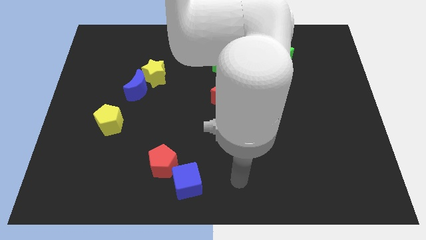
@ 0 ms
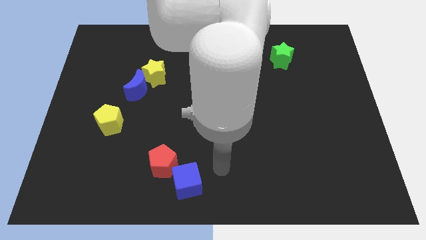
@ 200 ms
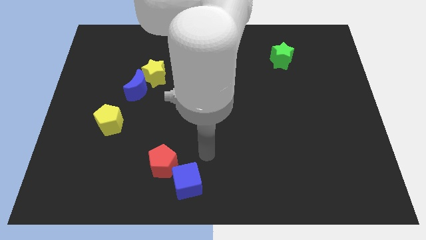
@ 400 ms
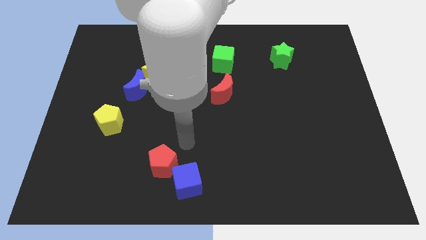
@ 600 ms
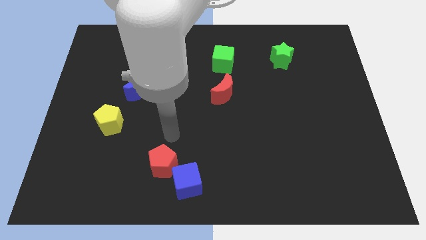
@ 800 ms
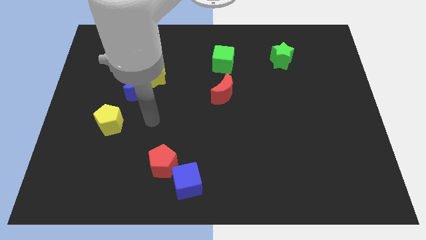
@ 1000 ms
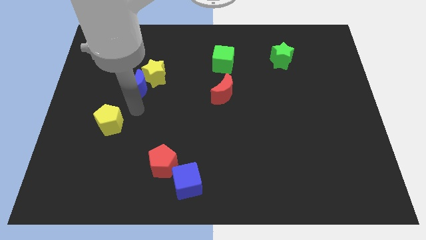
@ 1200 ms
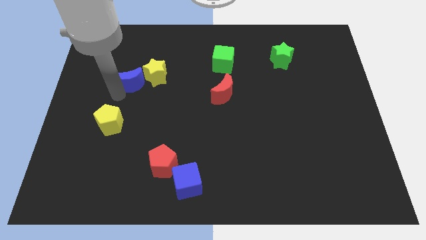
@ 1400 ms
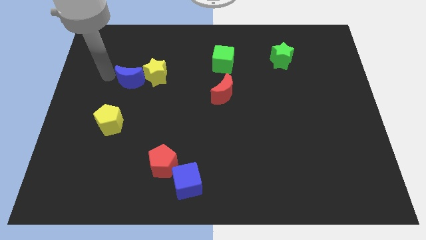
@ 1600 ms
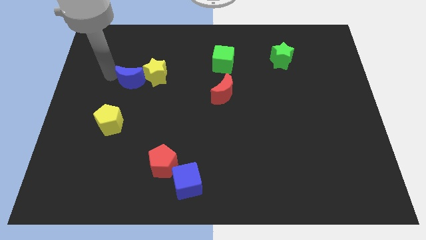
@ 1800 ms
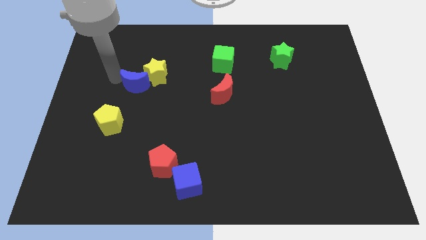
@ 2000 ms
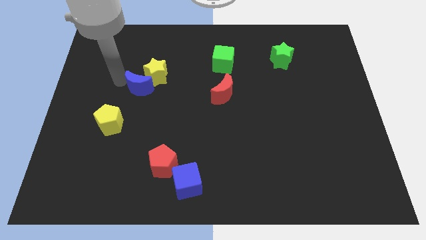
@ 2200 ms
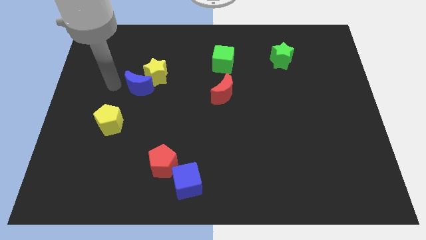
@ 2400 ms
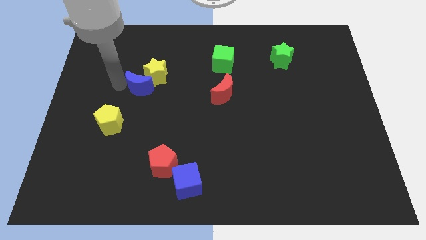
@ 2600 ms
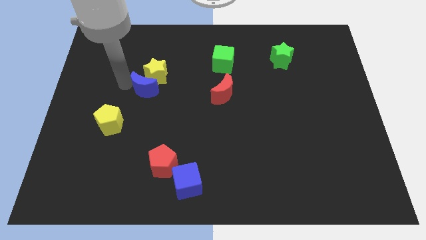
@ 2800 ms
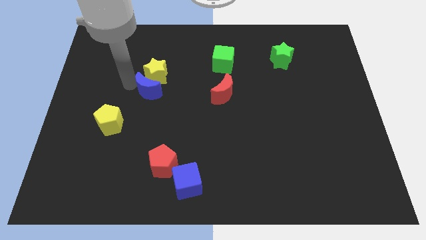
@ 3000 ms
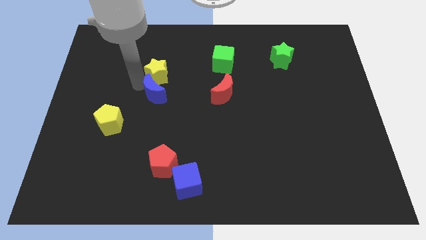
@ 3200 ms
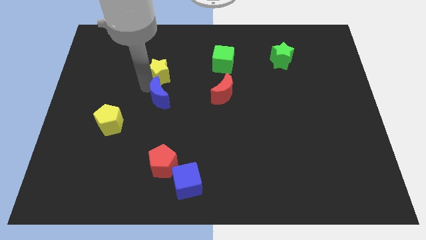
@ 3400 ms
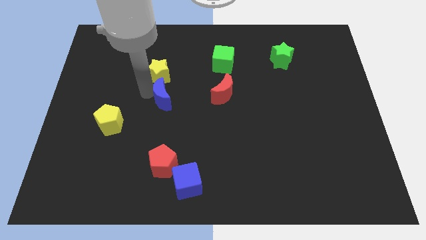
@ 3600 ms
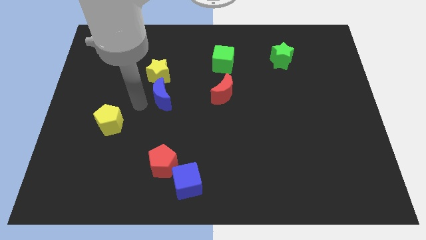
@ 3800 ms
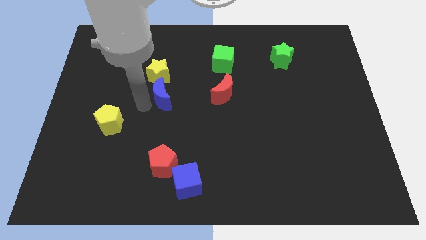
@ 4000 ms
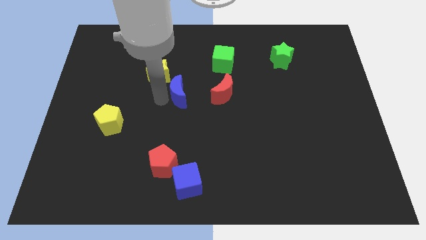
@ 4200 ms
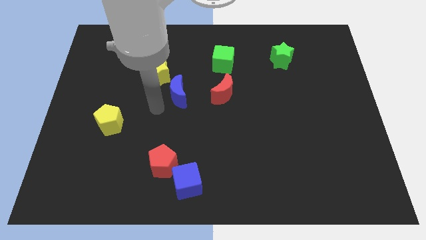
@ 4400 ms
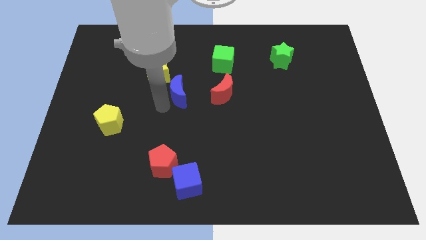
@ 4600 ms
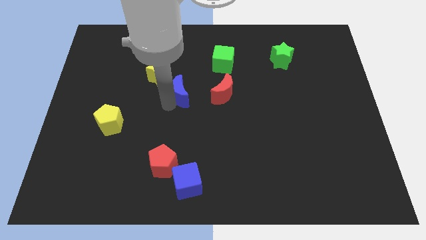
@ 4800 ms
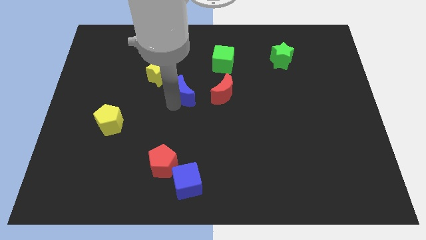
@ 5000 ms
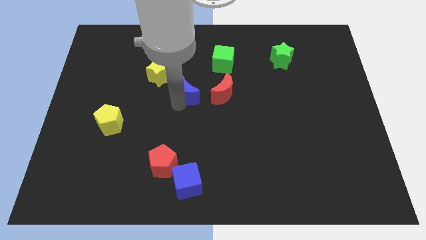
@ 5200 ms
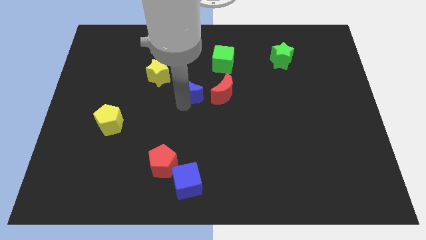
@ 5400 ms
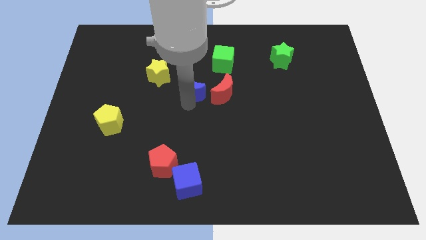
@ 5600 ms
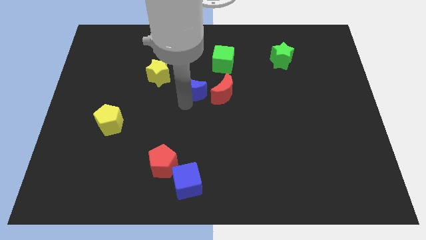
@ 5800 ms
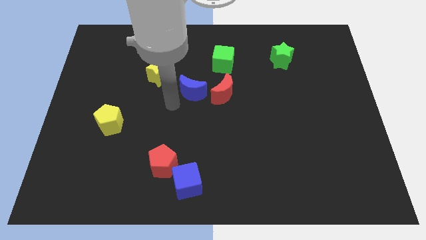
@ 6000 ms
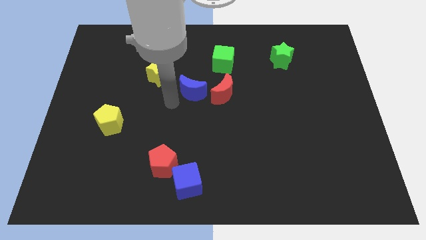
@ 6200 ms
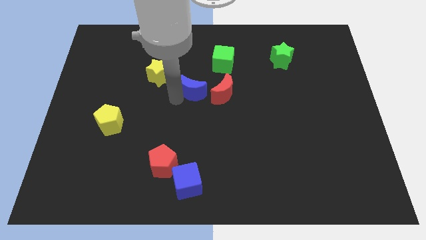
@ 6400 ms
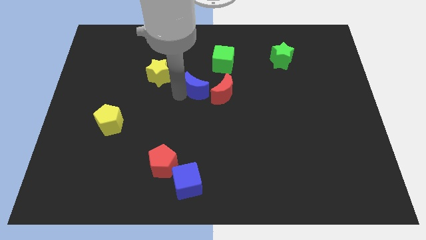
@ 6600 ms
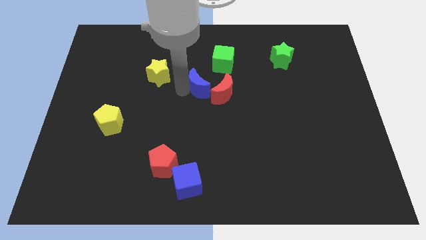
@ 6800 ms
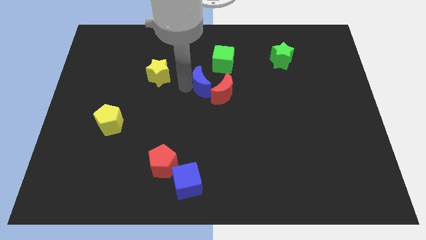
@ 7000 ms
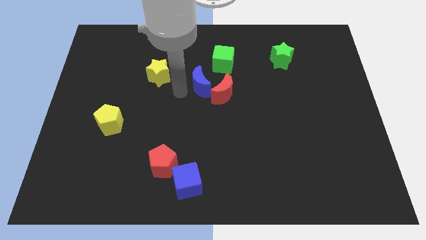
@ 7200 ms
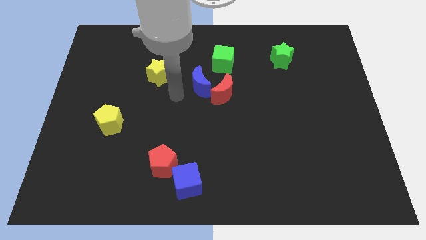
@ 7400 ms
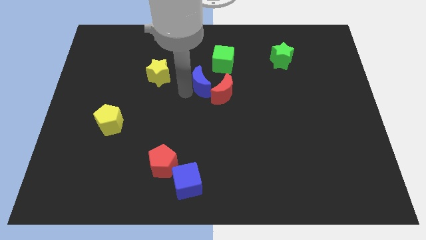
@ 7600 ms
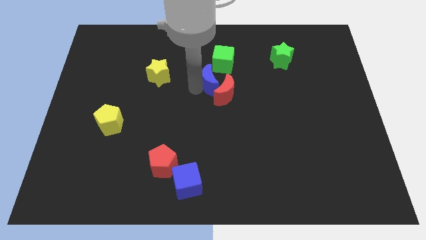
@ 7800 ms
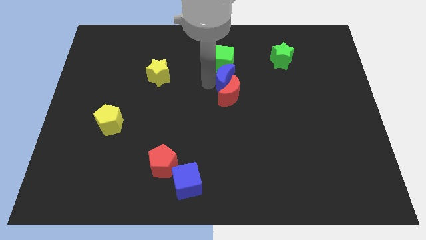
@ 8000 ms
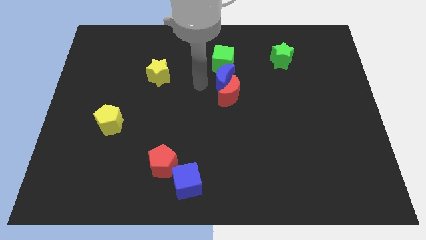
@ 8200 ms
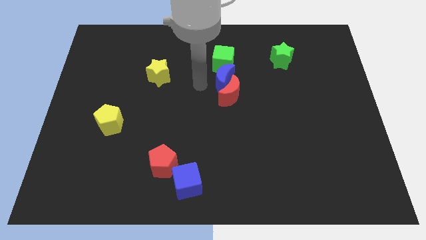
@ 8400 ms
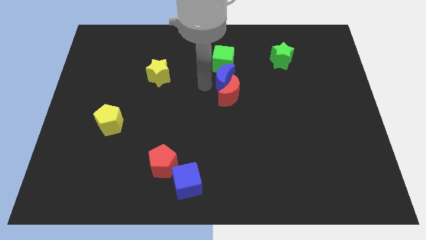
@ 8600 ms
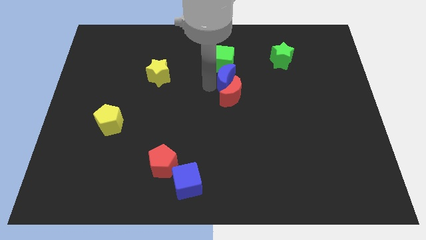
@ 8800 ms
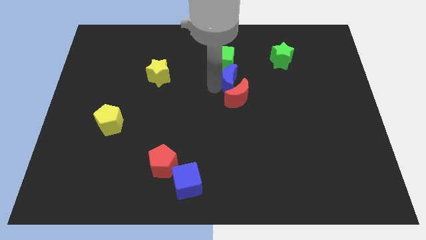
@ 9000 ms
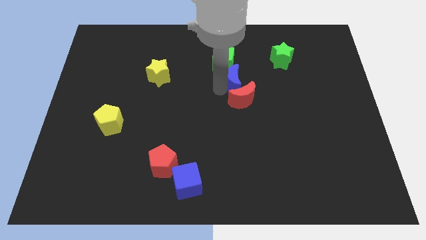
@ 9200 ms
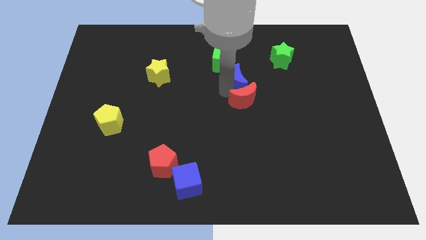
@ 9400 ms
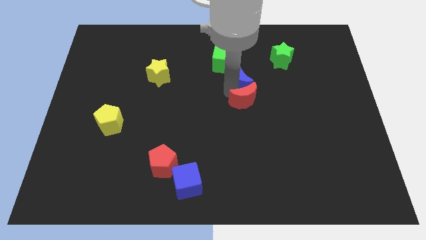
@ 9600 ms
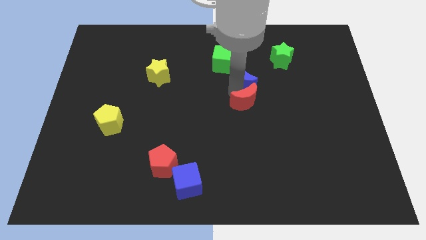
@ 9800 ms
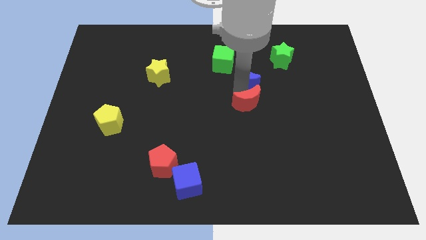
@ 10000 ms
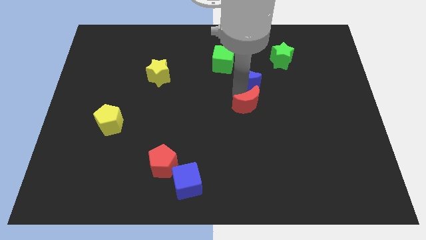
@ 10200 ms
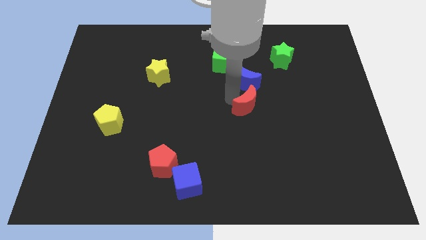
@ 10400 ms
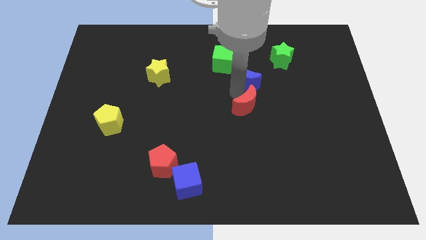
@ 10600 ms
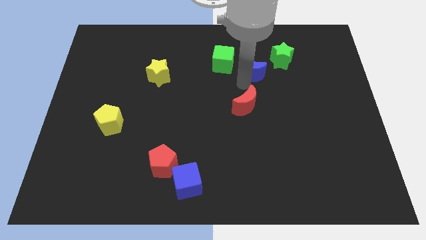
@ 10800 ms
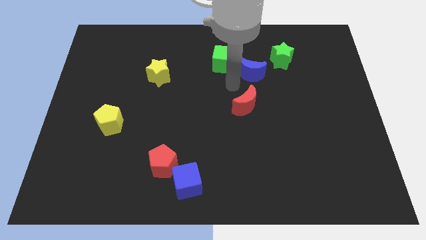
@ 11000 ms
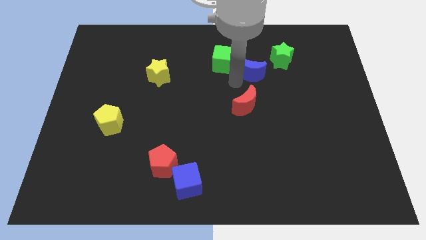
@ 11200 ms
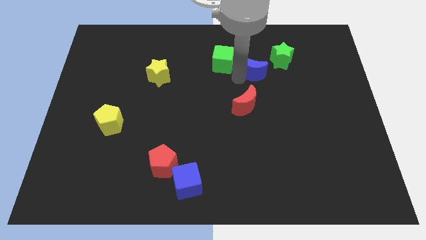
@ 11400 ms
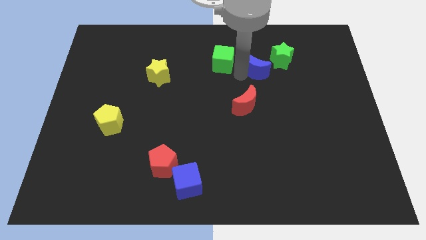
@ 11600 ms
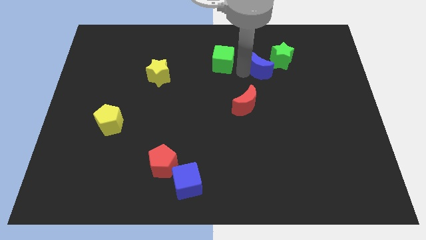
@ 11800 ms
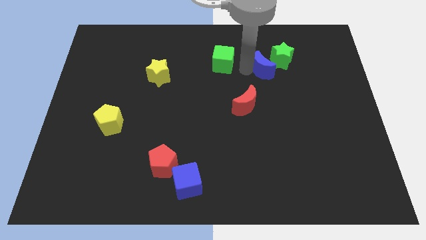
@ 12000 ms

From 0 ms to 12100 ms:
slide the blue moon next to the green star

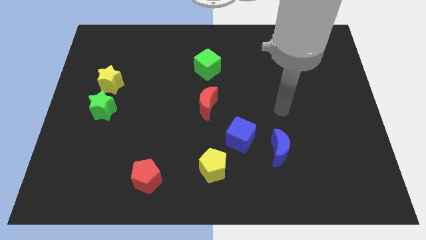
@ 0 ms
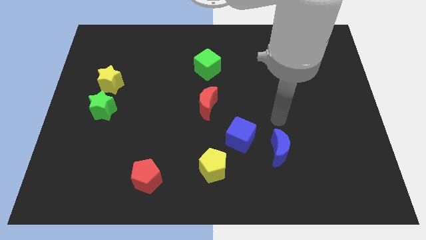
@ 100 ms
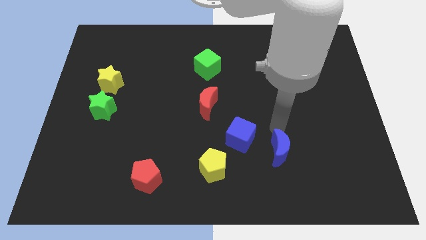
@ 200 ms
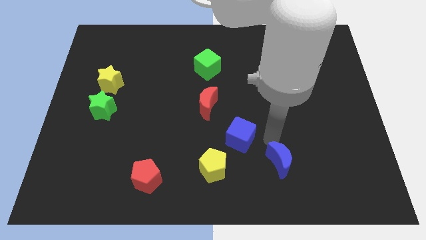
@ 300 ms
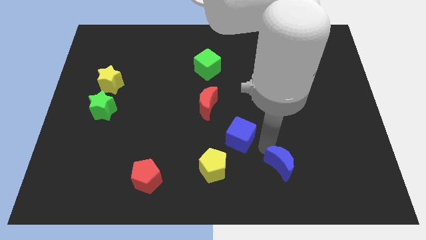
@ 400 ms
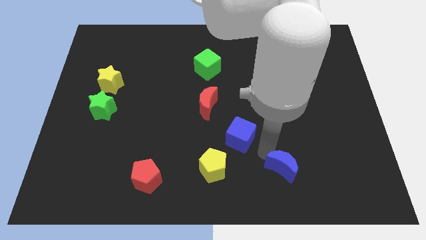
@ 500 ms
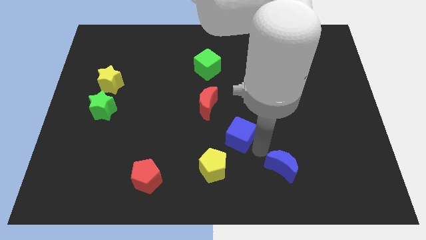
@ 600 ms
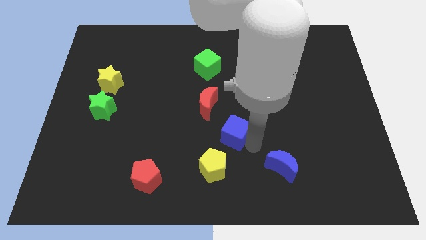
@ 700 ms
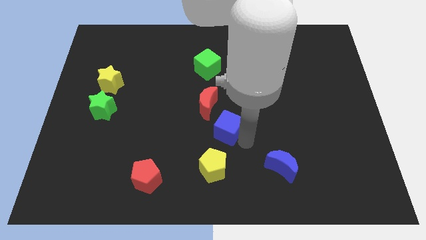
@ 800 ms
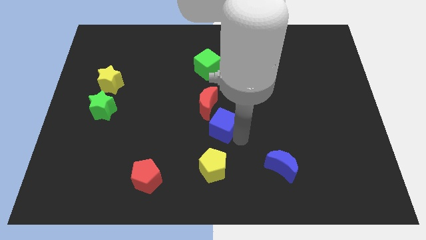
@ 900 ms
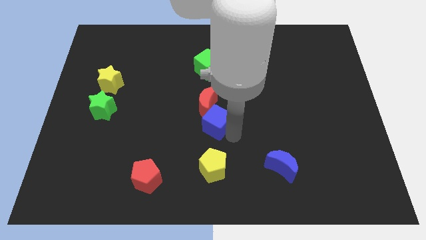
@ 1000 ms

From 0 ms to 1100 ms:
move the blue cube close to the red moon
